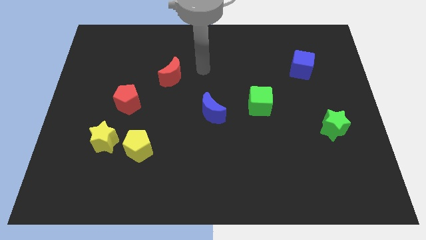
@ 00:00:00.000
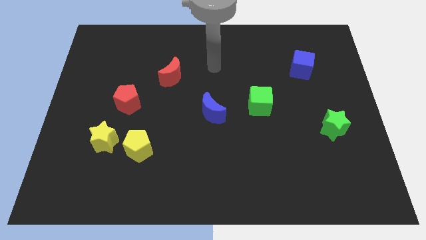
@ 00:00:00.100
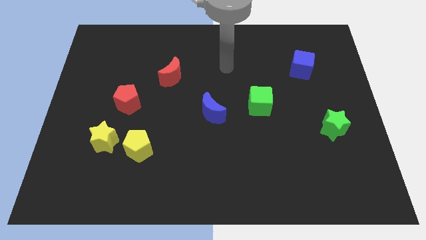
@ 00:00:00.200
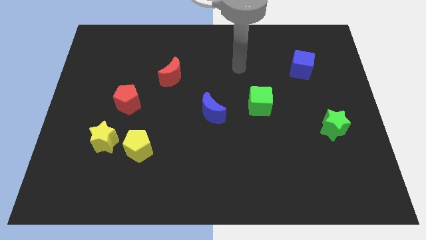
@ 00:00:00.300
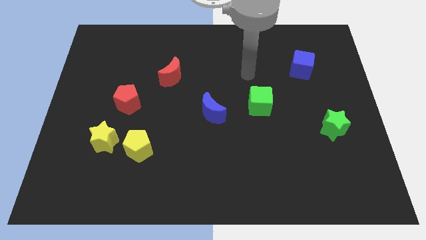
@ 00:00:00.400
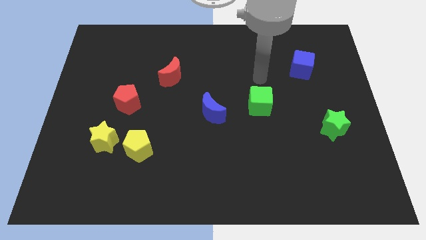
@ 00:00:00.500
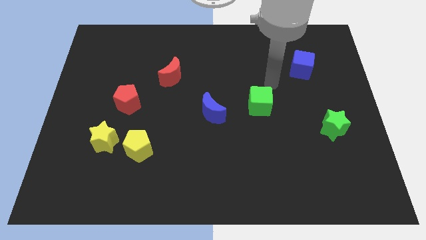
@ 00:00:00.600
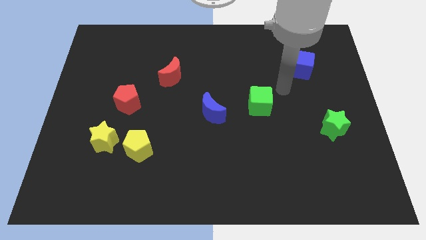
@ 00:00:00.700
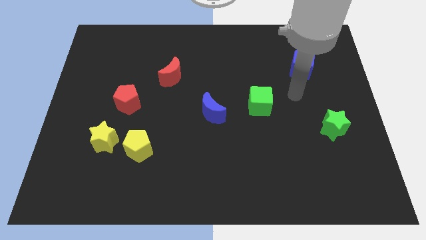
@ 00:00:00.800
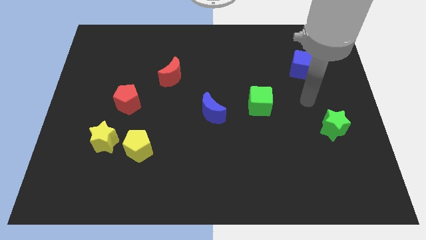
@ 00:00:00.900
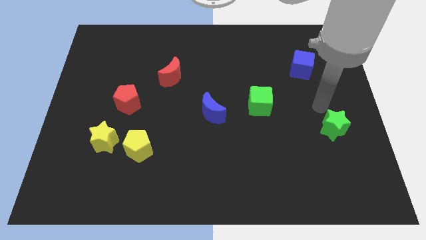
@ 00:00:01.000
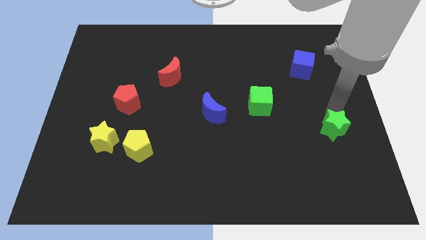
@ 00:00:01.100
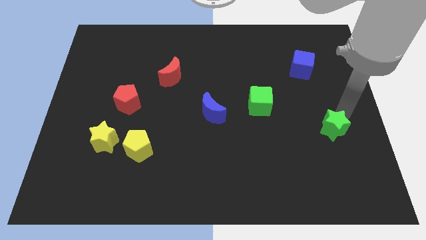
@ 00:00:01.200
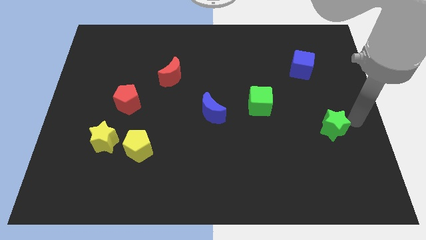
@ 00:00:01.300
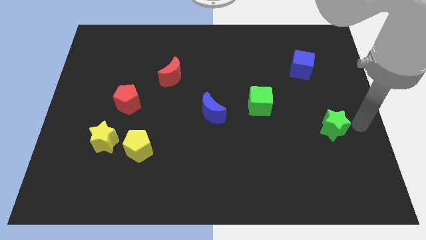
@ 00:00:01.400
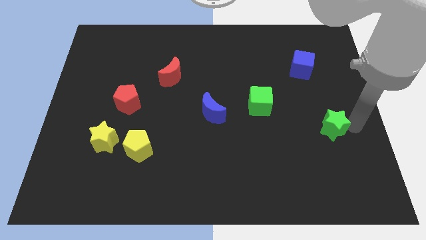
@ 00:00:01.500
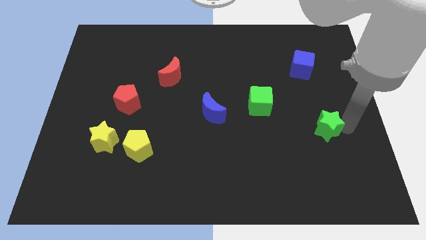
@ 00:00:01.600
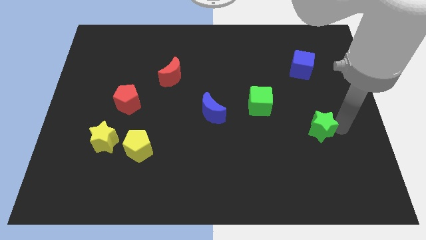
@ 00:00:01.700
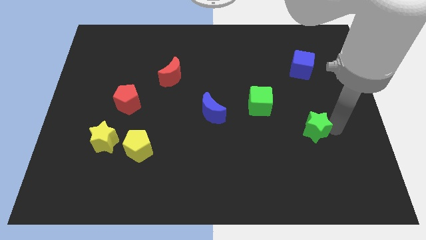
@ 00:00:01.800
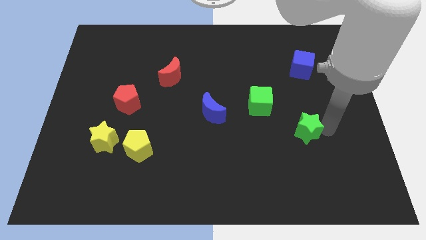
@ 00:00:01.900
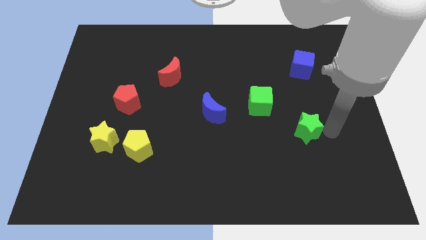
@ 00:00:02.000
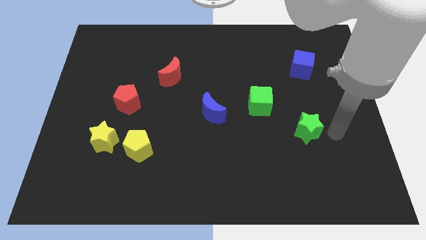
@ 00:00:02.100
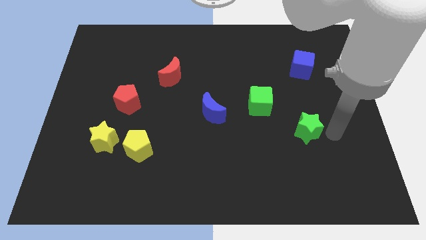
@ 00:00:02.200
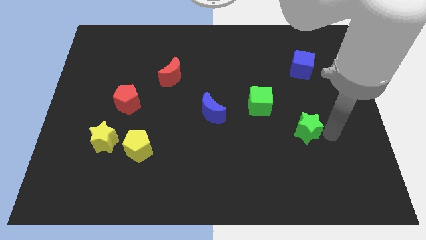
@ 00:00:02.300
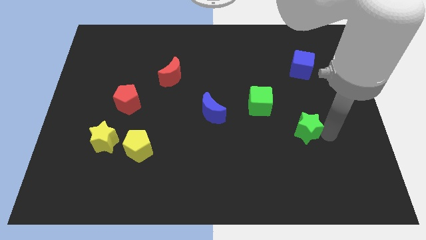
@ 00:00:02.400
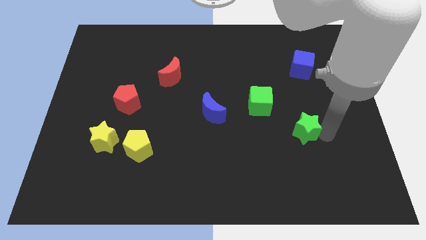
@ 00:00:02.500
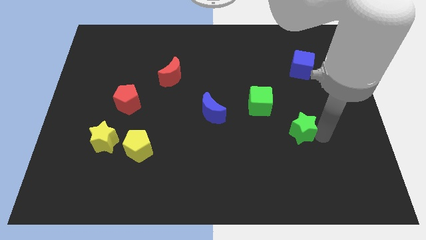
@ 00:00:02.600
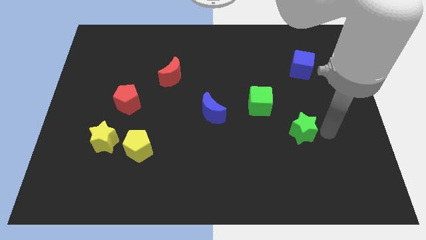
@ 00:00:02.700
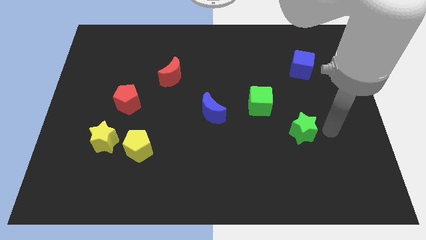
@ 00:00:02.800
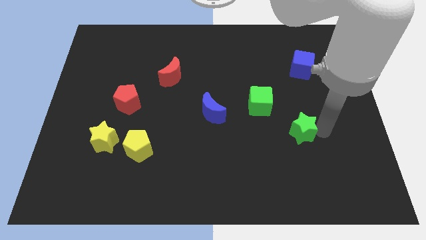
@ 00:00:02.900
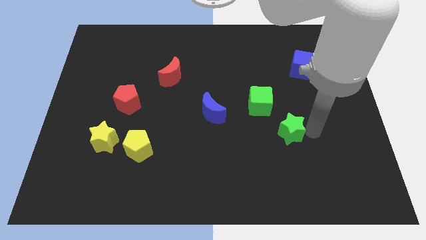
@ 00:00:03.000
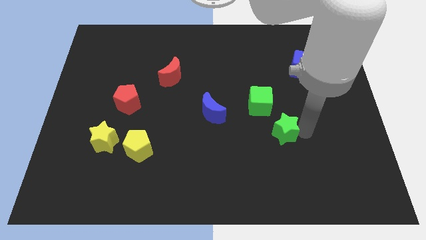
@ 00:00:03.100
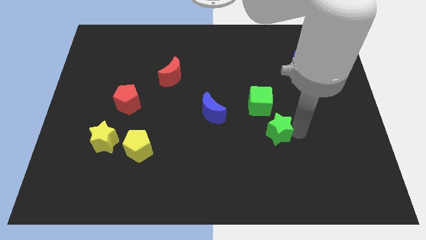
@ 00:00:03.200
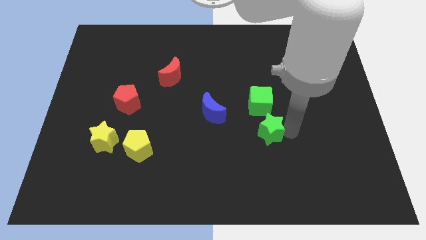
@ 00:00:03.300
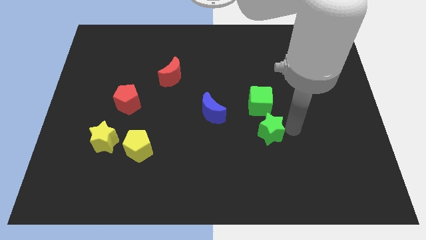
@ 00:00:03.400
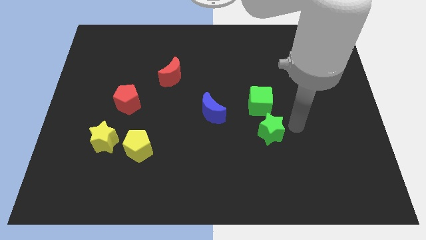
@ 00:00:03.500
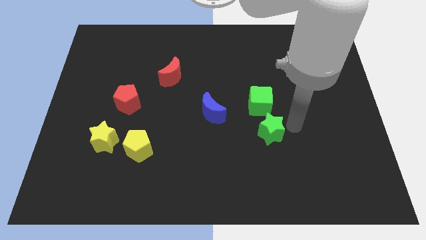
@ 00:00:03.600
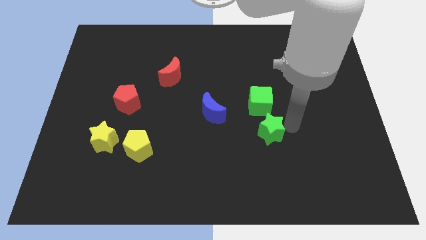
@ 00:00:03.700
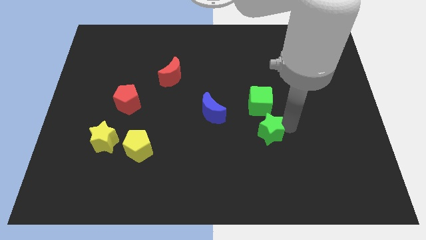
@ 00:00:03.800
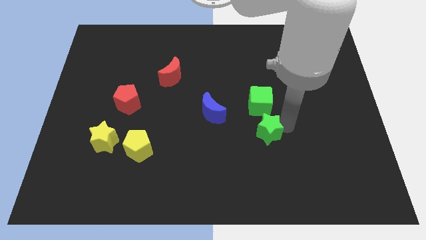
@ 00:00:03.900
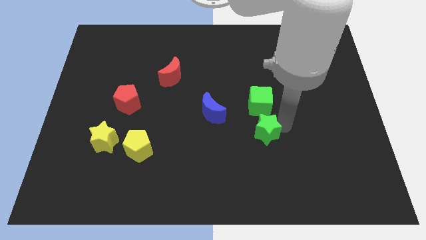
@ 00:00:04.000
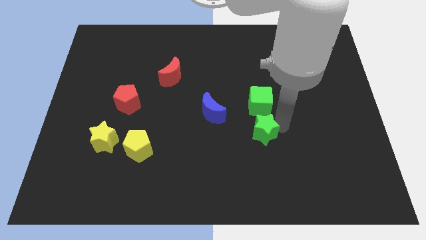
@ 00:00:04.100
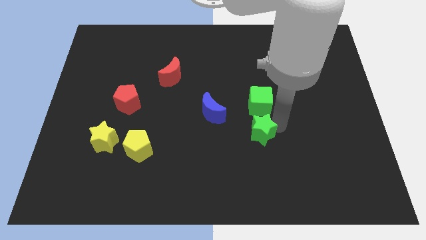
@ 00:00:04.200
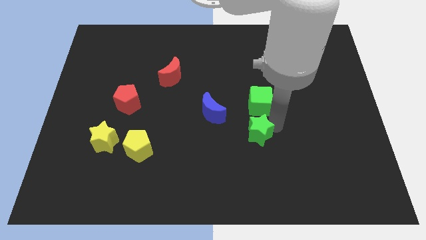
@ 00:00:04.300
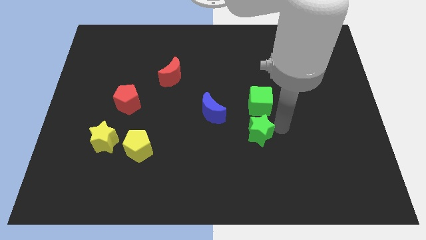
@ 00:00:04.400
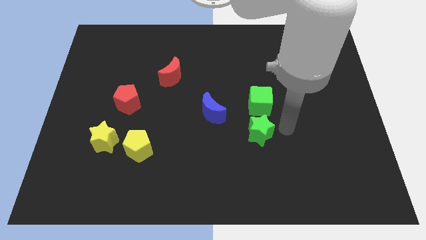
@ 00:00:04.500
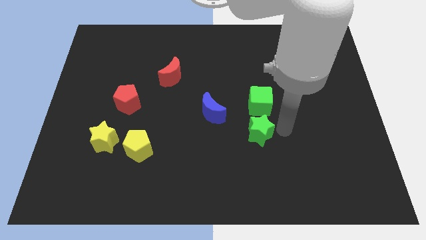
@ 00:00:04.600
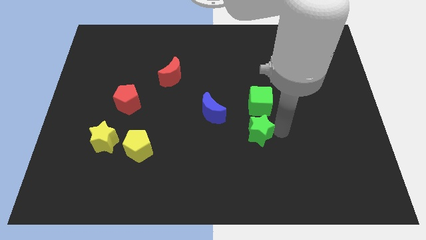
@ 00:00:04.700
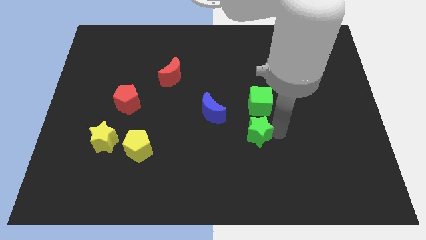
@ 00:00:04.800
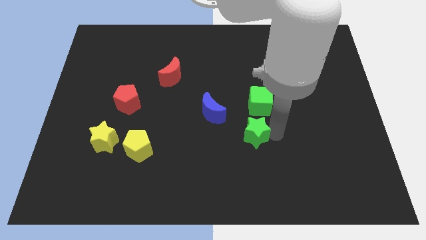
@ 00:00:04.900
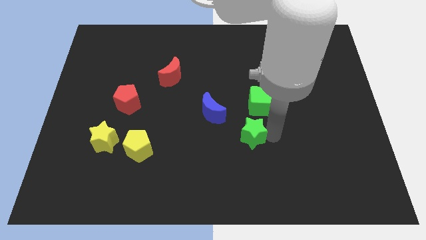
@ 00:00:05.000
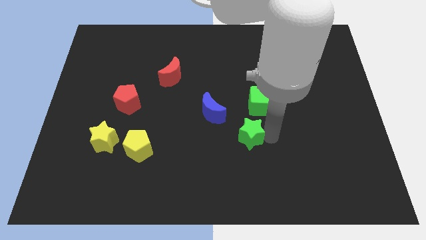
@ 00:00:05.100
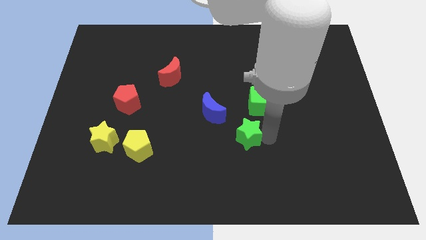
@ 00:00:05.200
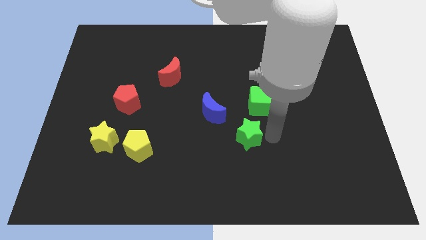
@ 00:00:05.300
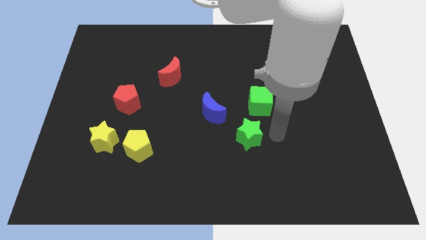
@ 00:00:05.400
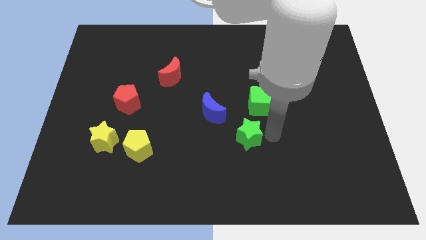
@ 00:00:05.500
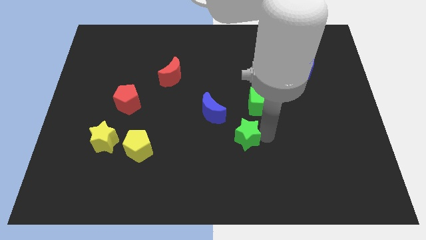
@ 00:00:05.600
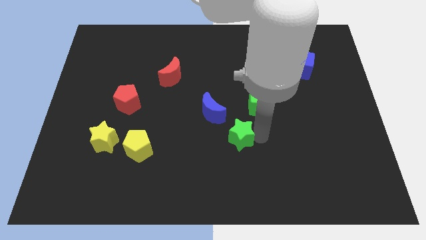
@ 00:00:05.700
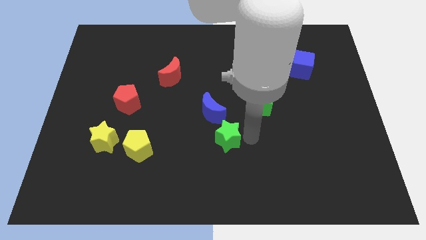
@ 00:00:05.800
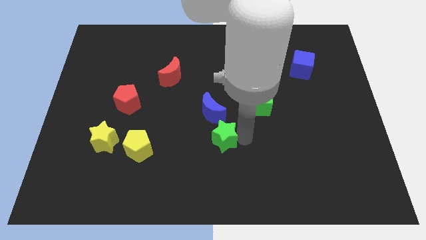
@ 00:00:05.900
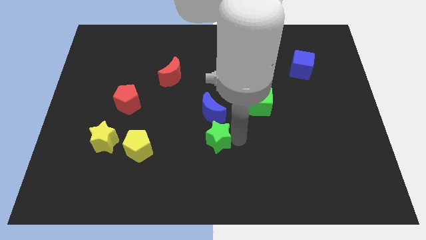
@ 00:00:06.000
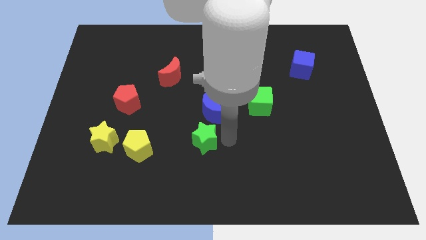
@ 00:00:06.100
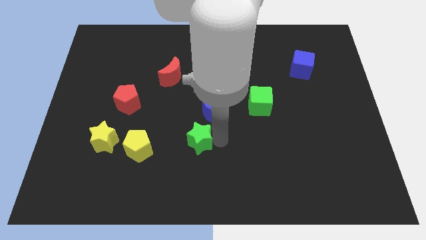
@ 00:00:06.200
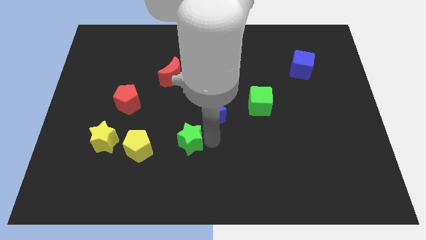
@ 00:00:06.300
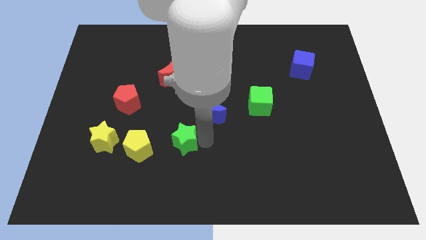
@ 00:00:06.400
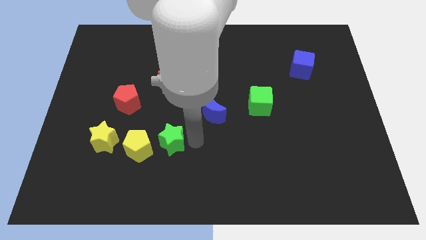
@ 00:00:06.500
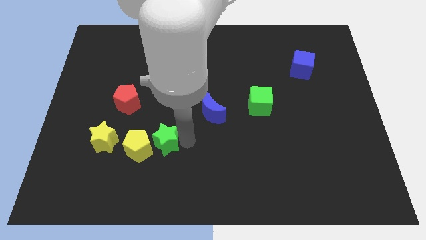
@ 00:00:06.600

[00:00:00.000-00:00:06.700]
put the green star towards the yellow pentagon

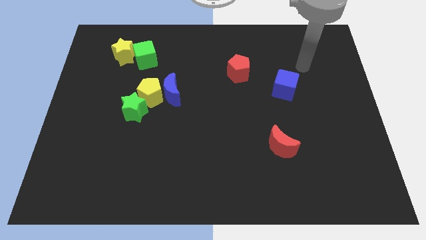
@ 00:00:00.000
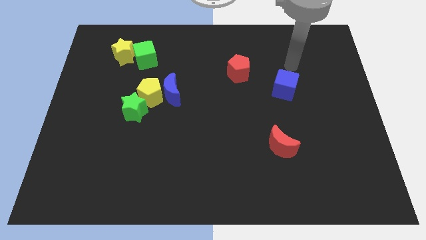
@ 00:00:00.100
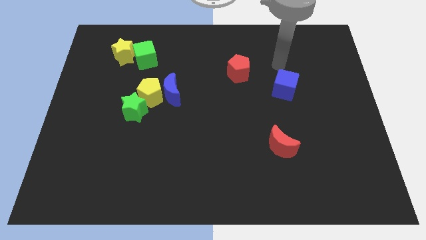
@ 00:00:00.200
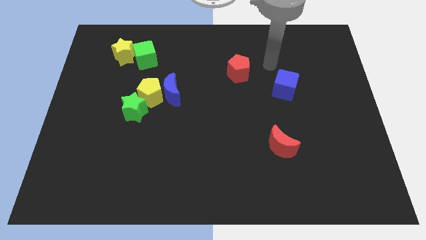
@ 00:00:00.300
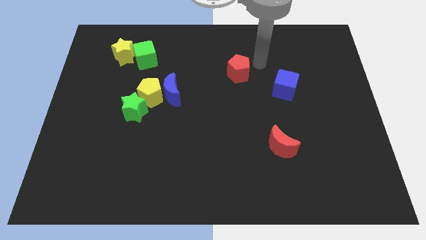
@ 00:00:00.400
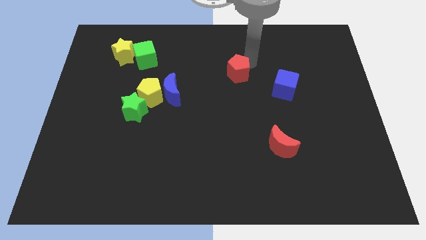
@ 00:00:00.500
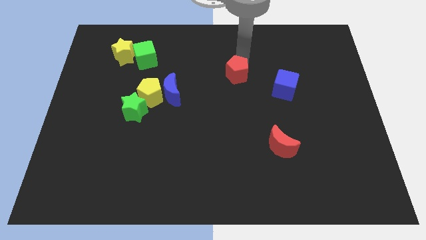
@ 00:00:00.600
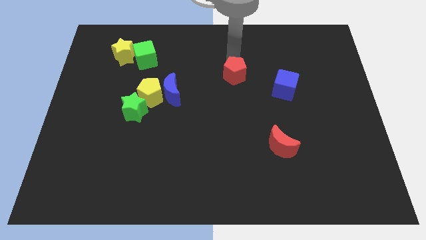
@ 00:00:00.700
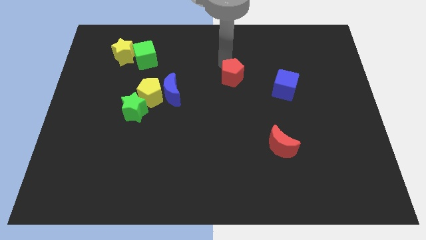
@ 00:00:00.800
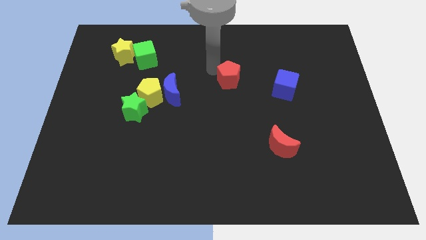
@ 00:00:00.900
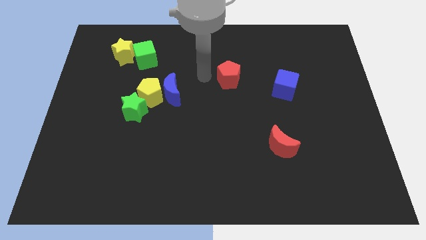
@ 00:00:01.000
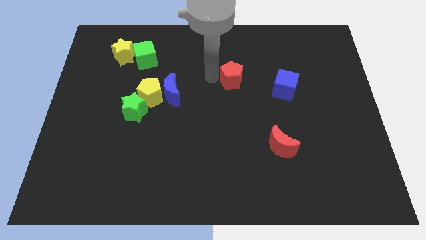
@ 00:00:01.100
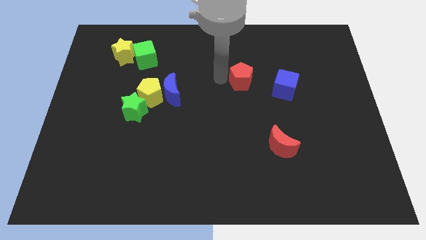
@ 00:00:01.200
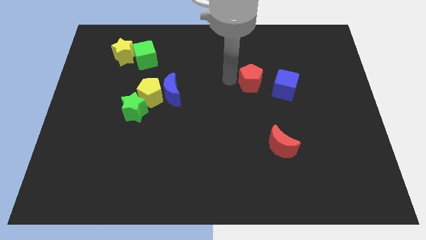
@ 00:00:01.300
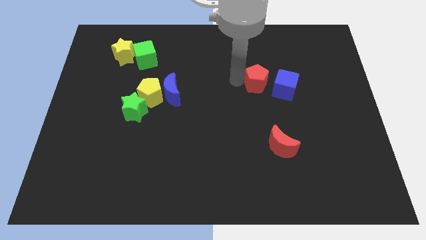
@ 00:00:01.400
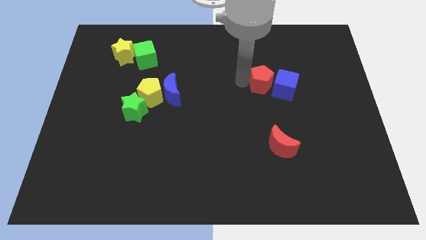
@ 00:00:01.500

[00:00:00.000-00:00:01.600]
push the red pentagon close to the blue cube
